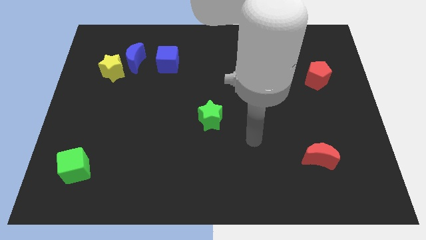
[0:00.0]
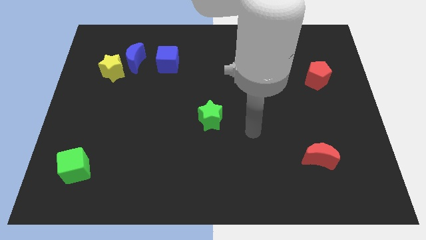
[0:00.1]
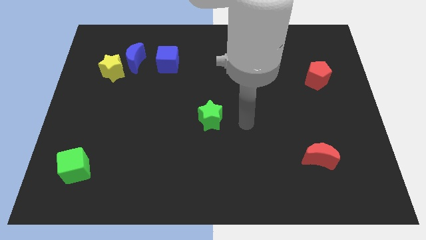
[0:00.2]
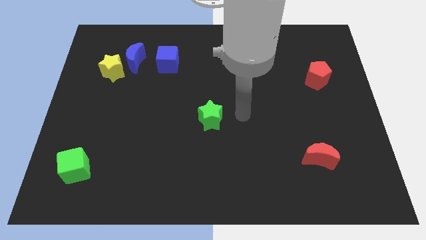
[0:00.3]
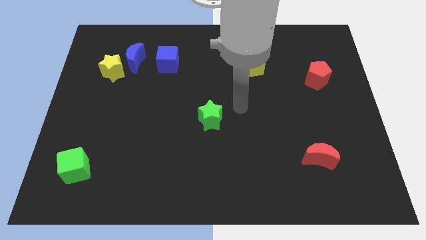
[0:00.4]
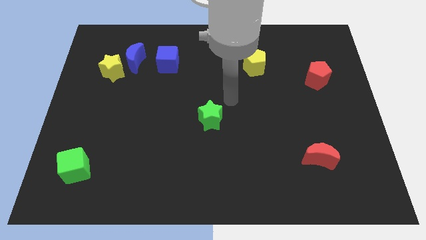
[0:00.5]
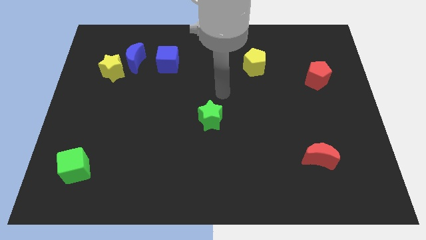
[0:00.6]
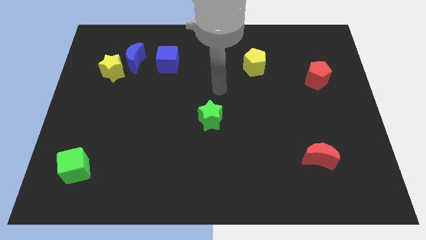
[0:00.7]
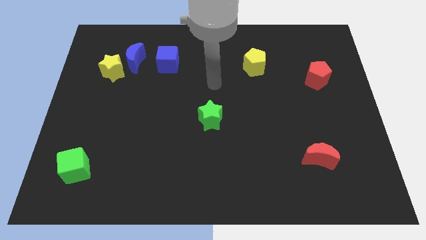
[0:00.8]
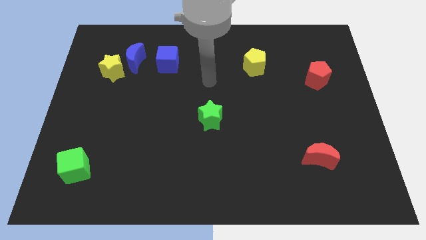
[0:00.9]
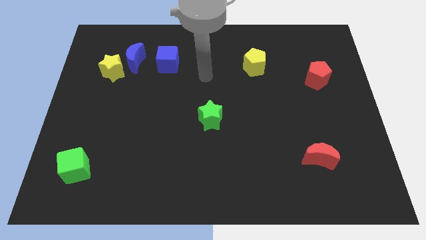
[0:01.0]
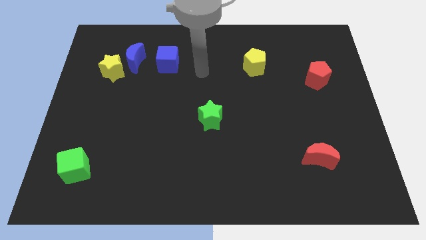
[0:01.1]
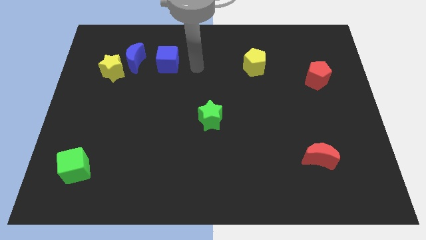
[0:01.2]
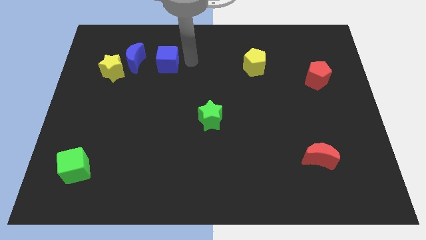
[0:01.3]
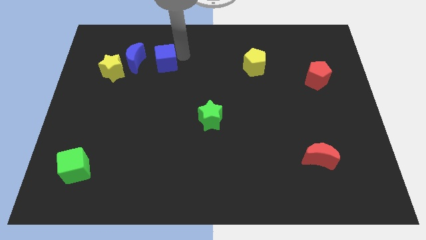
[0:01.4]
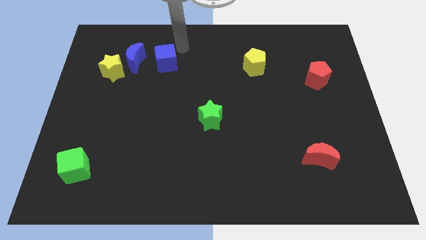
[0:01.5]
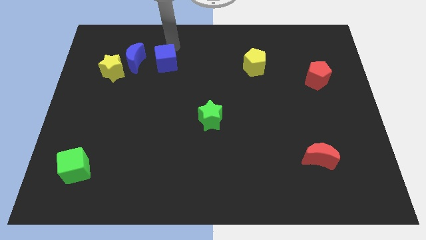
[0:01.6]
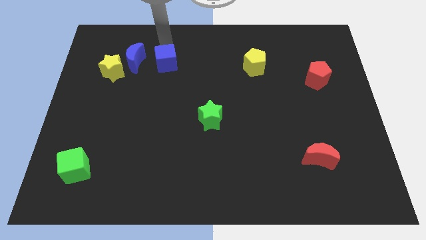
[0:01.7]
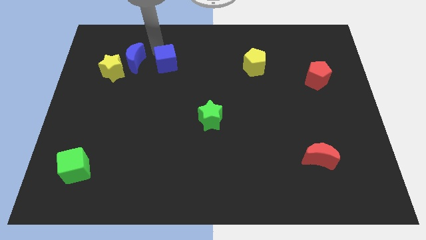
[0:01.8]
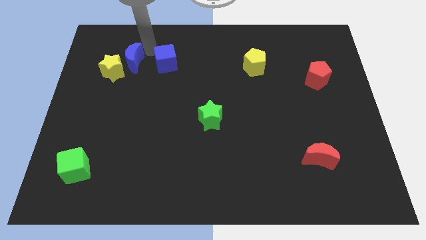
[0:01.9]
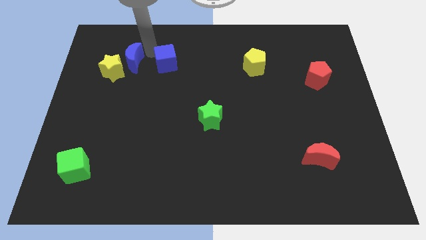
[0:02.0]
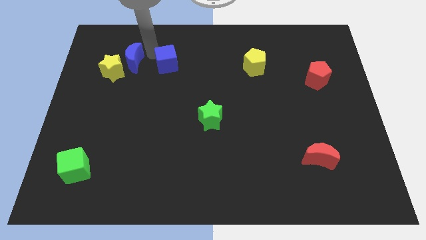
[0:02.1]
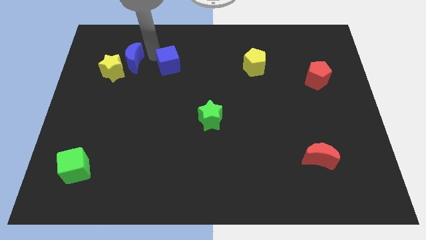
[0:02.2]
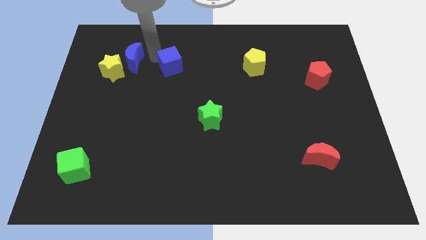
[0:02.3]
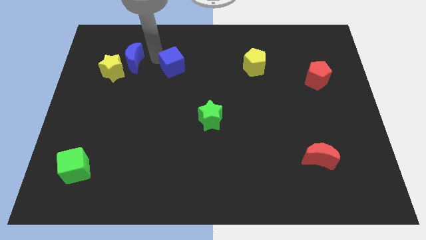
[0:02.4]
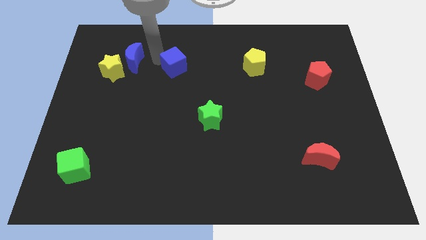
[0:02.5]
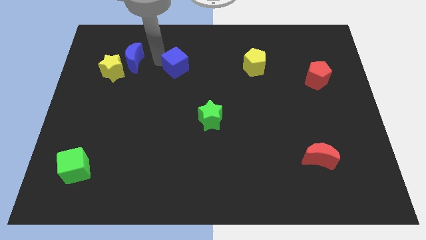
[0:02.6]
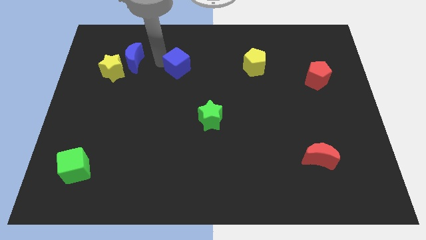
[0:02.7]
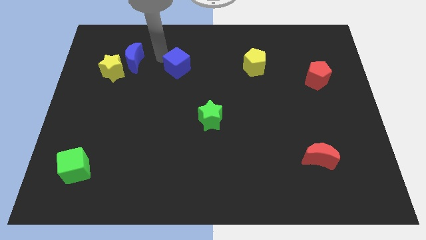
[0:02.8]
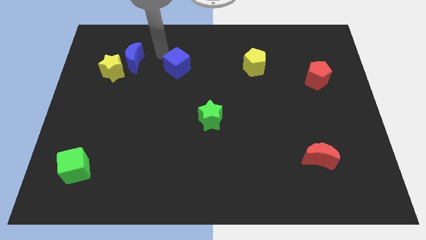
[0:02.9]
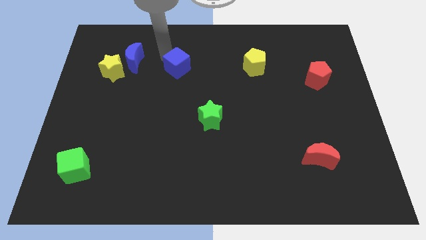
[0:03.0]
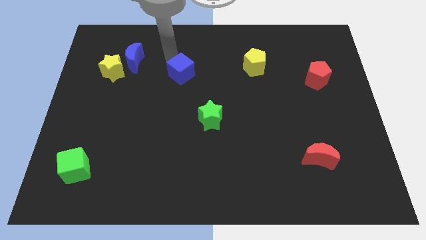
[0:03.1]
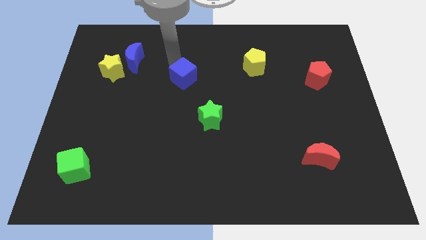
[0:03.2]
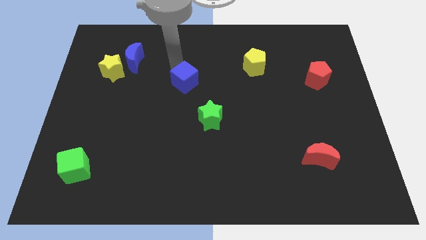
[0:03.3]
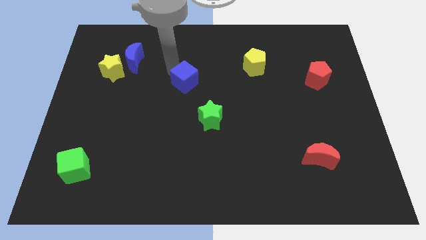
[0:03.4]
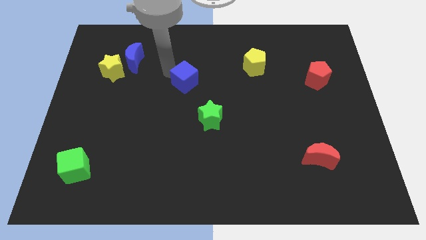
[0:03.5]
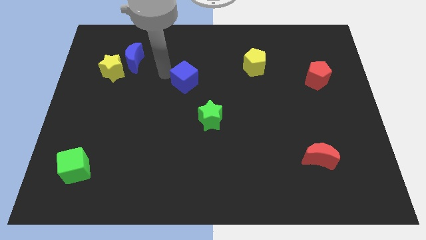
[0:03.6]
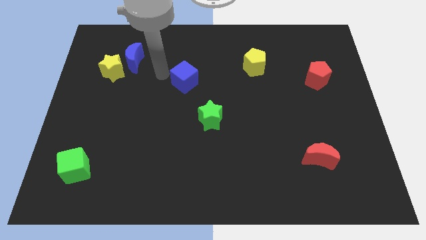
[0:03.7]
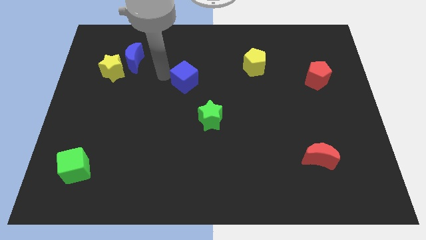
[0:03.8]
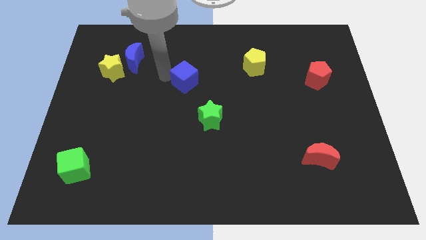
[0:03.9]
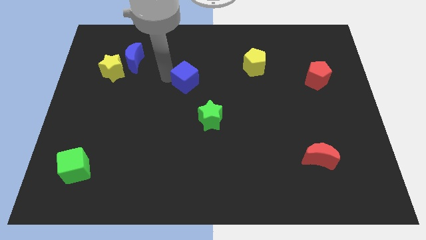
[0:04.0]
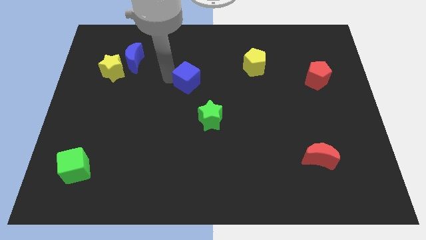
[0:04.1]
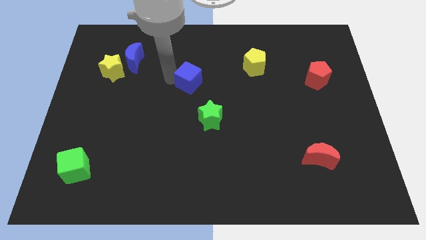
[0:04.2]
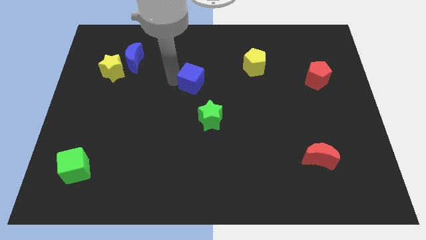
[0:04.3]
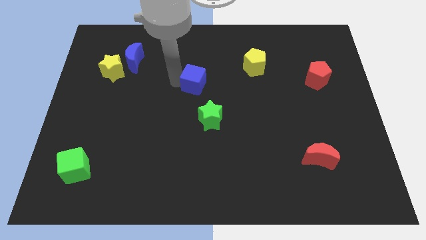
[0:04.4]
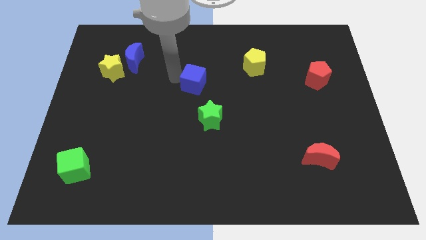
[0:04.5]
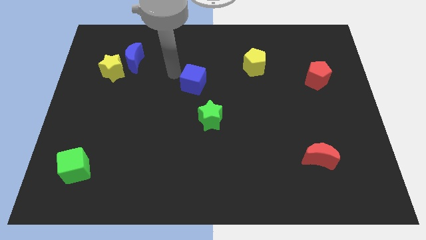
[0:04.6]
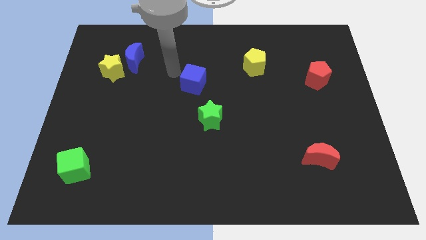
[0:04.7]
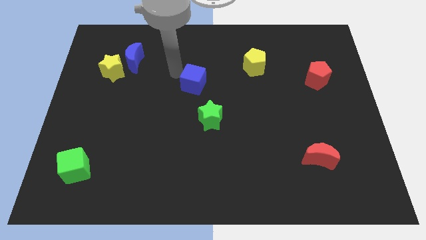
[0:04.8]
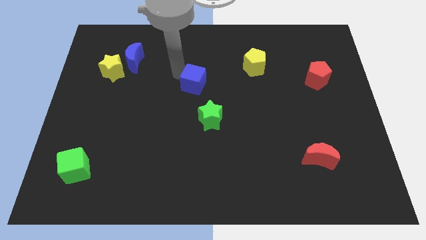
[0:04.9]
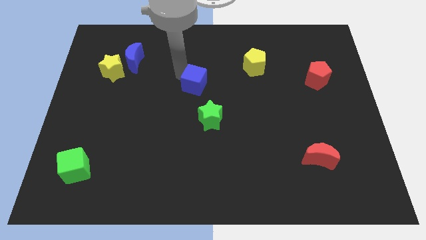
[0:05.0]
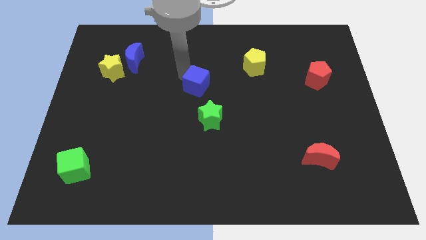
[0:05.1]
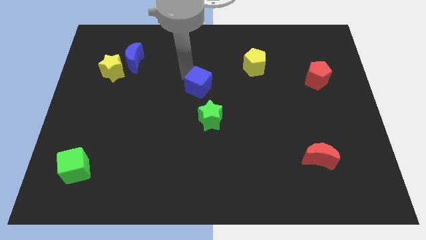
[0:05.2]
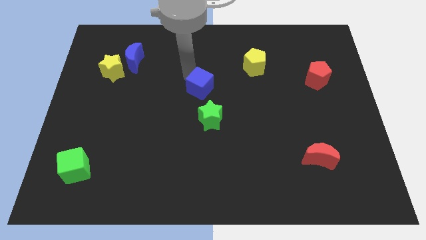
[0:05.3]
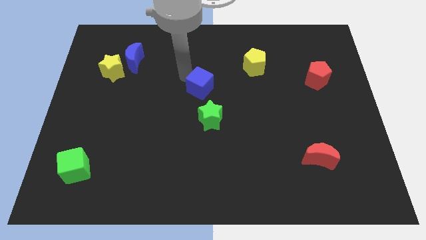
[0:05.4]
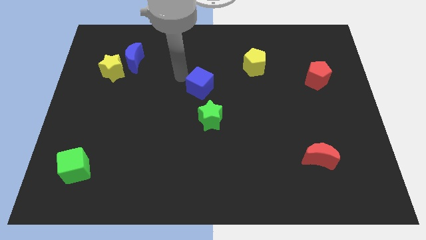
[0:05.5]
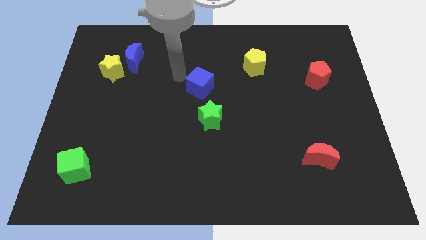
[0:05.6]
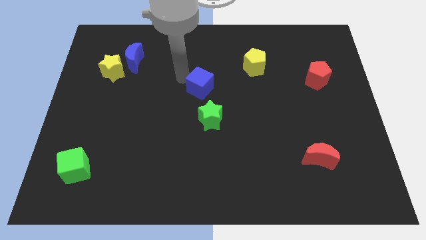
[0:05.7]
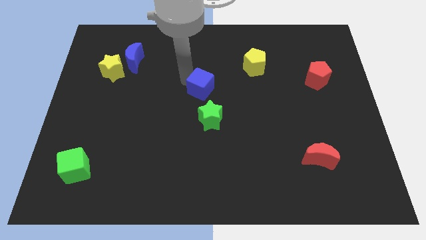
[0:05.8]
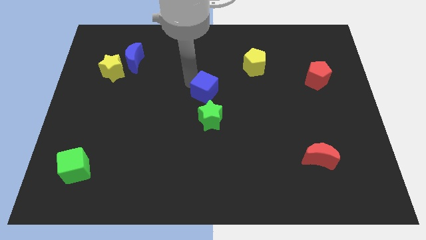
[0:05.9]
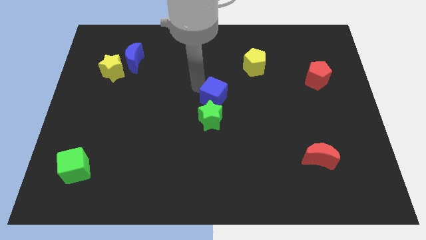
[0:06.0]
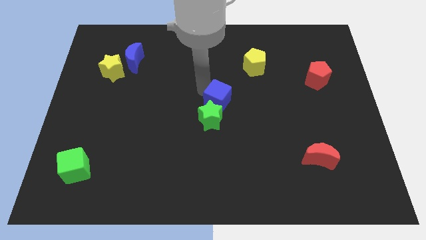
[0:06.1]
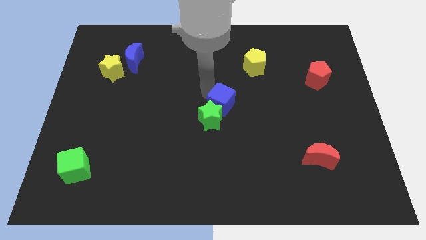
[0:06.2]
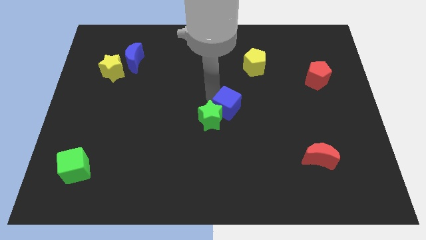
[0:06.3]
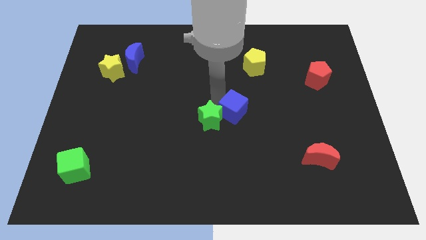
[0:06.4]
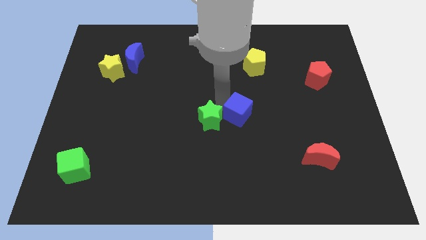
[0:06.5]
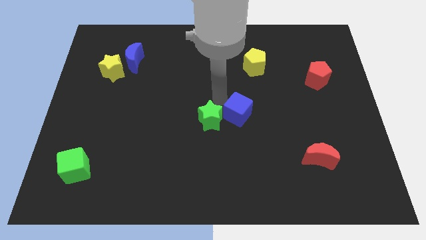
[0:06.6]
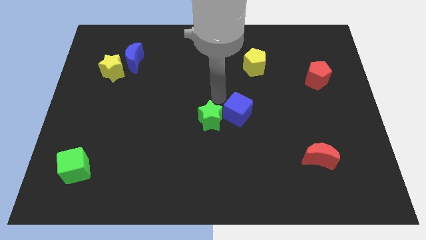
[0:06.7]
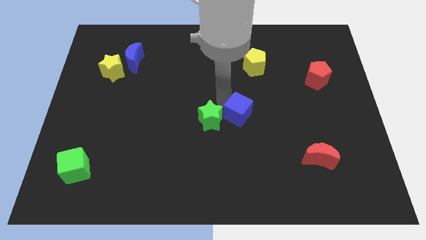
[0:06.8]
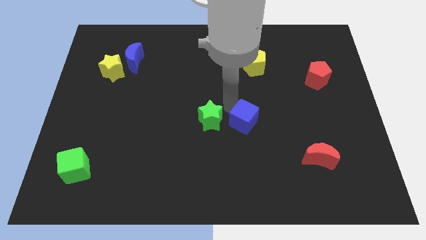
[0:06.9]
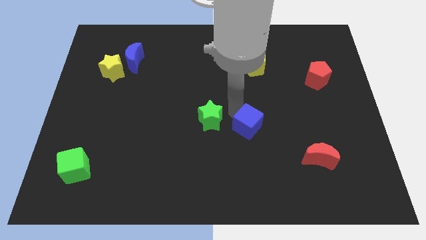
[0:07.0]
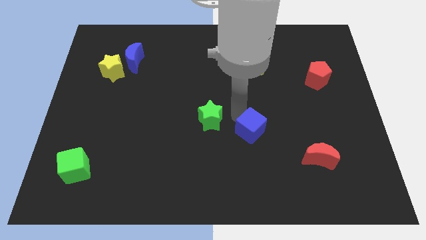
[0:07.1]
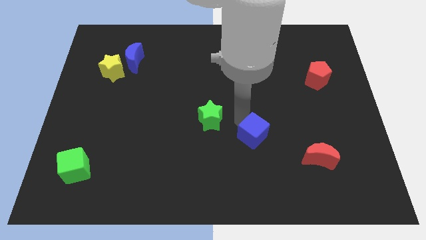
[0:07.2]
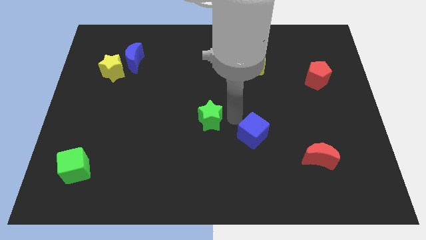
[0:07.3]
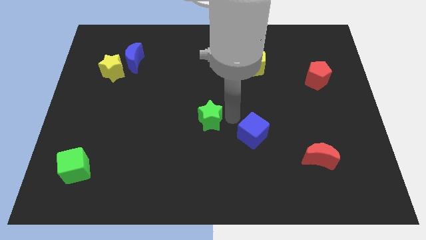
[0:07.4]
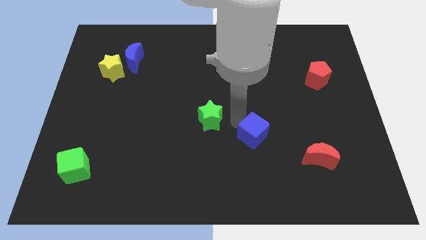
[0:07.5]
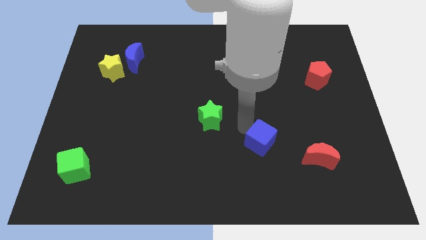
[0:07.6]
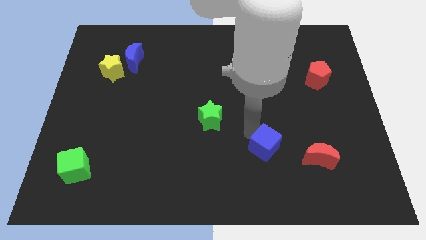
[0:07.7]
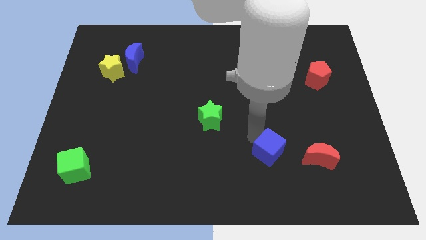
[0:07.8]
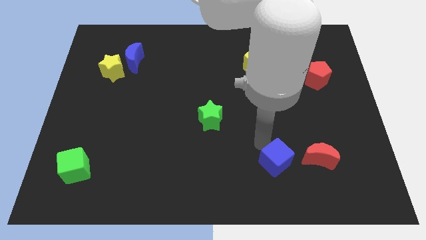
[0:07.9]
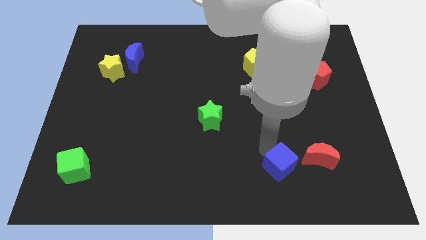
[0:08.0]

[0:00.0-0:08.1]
move the blue cube to the bottom left side of the red moon
